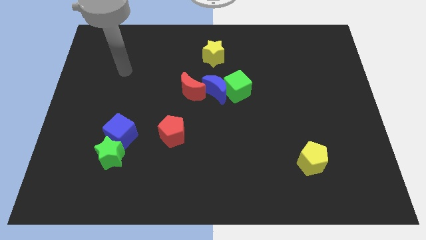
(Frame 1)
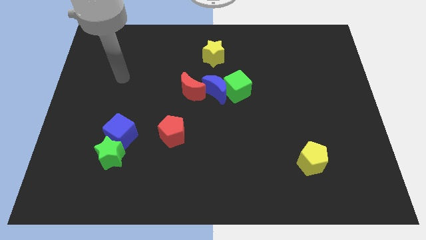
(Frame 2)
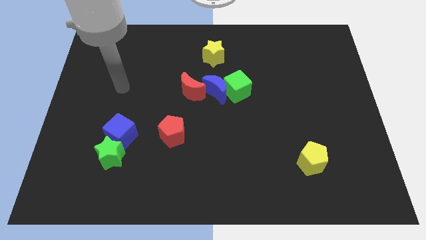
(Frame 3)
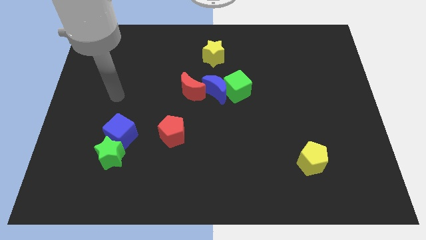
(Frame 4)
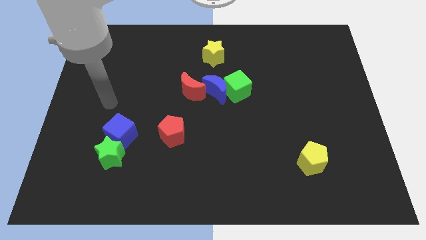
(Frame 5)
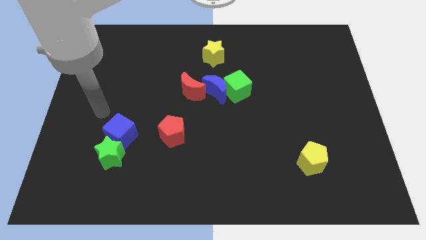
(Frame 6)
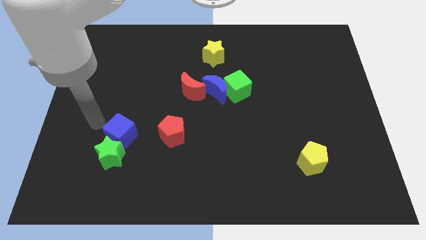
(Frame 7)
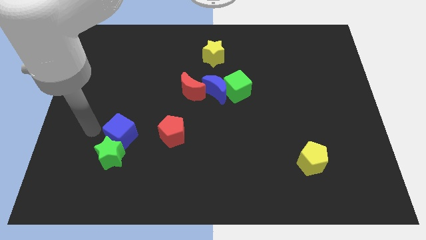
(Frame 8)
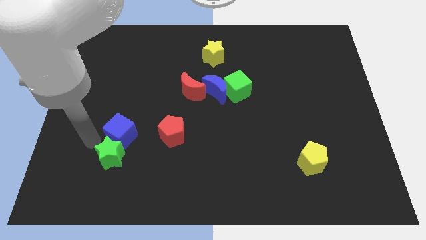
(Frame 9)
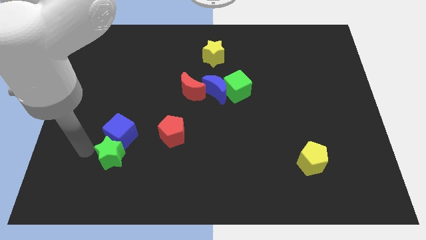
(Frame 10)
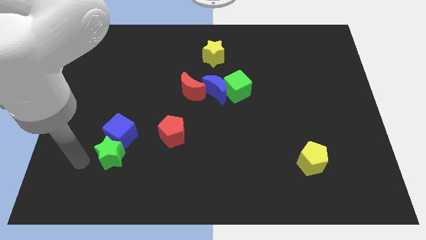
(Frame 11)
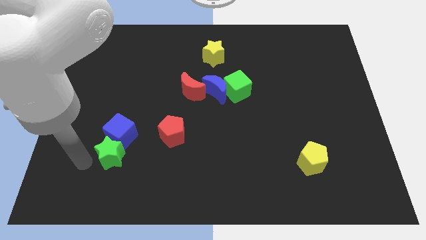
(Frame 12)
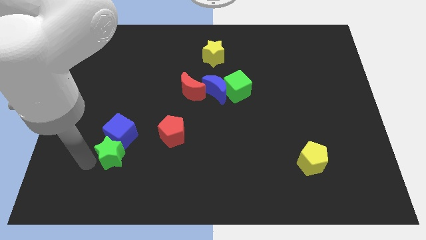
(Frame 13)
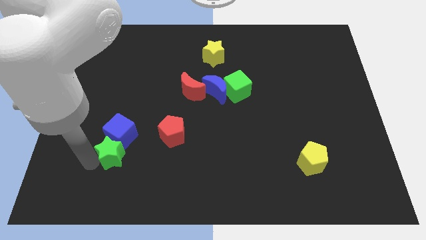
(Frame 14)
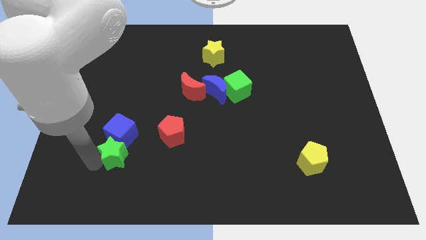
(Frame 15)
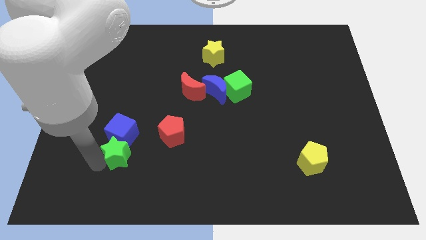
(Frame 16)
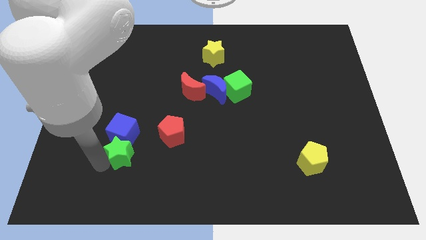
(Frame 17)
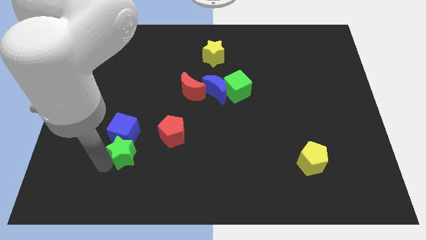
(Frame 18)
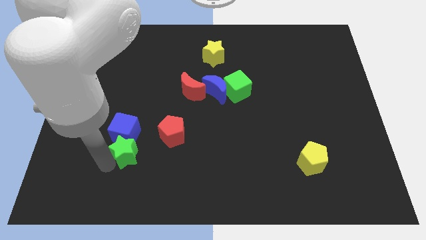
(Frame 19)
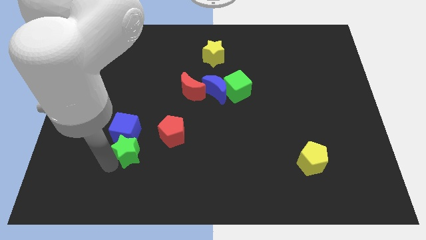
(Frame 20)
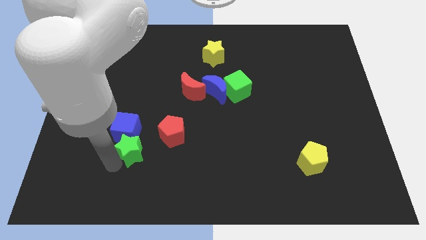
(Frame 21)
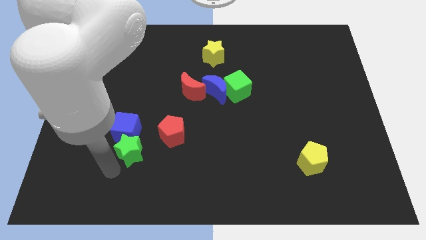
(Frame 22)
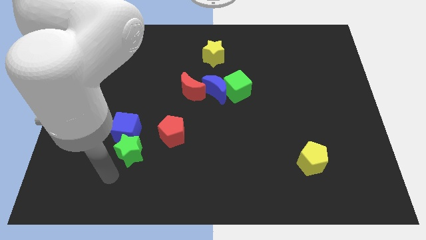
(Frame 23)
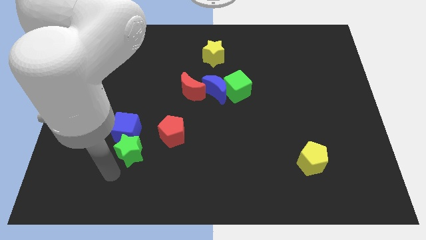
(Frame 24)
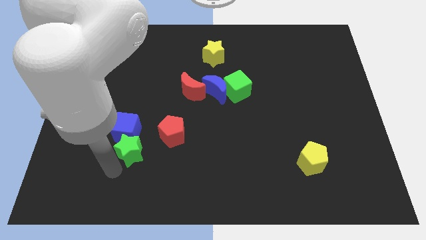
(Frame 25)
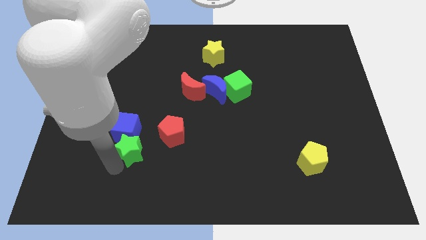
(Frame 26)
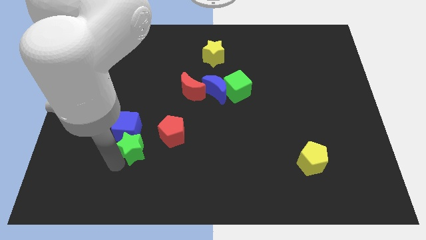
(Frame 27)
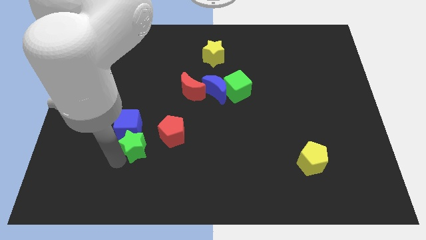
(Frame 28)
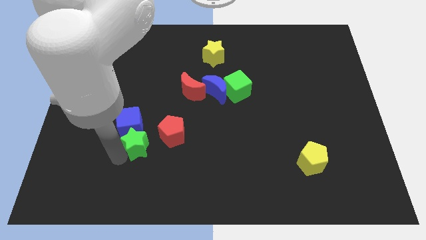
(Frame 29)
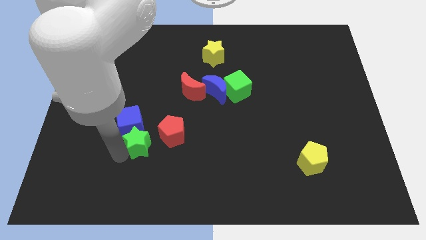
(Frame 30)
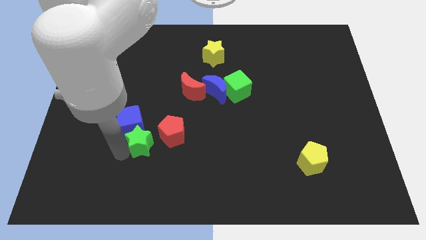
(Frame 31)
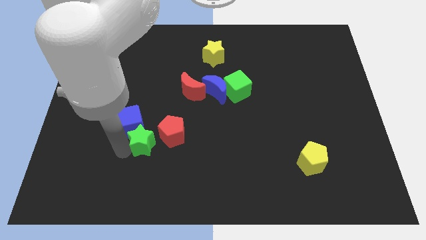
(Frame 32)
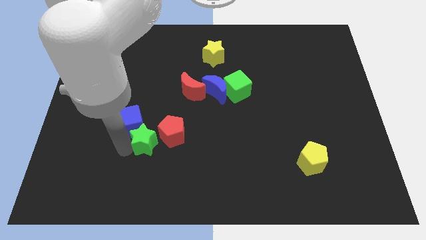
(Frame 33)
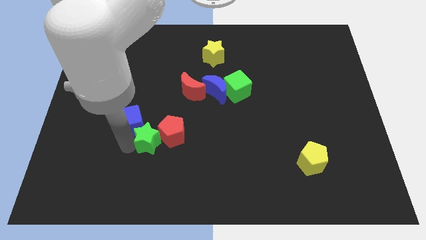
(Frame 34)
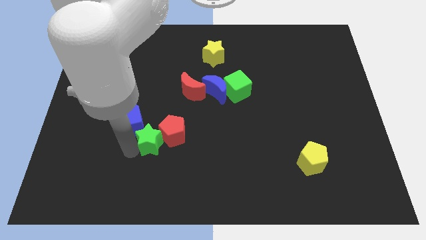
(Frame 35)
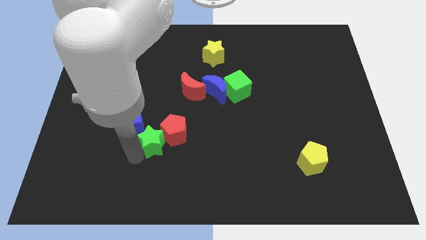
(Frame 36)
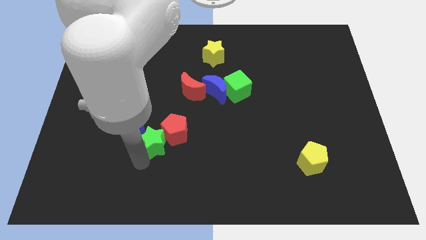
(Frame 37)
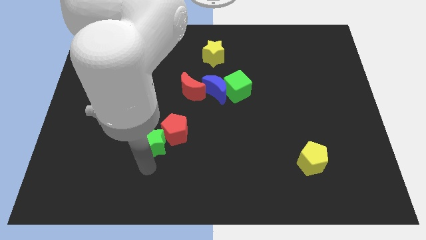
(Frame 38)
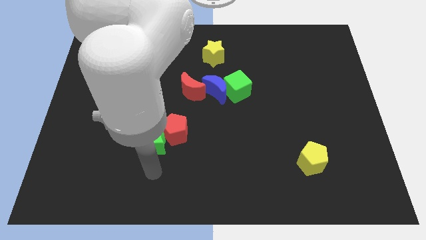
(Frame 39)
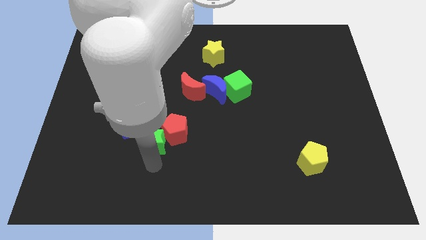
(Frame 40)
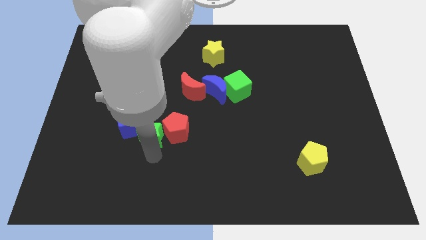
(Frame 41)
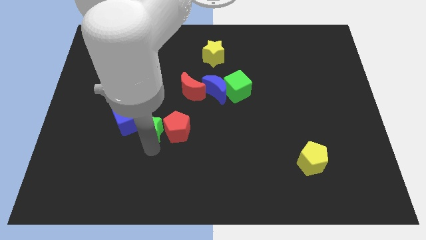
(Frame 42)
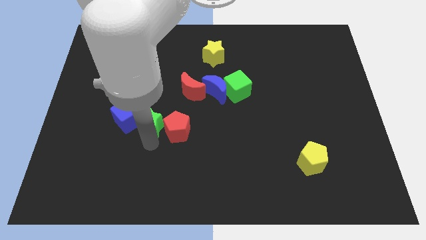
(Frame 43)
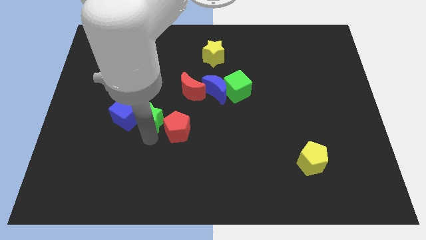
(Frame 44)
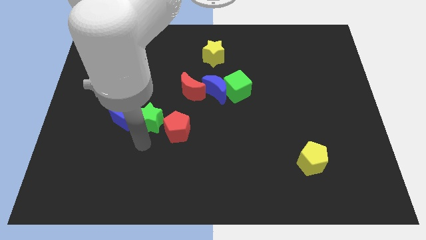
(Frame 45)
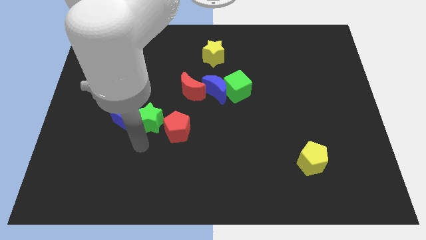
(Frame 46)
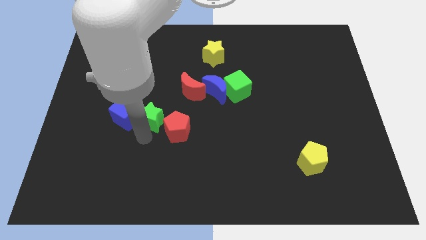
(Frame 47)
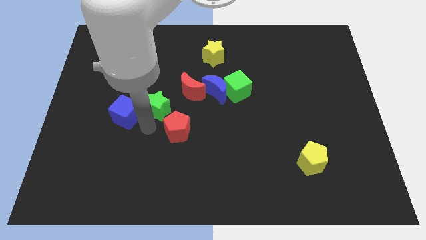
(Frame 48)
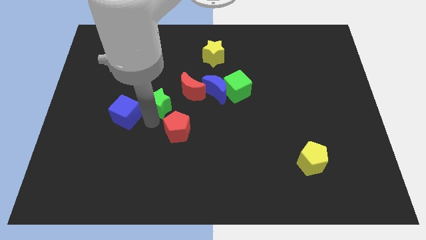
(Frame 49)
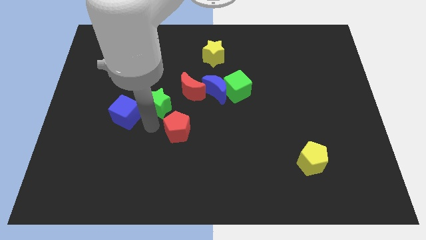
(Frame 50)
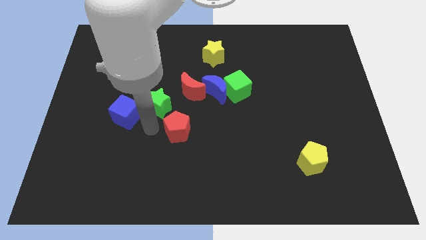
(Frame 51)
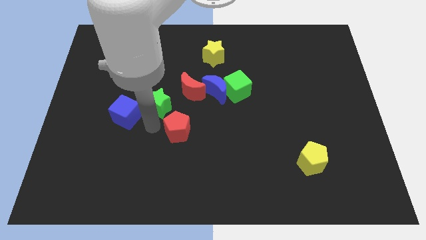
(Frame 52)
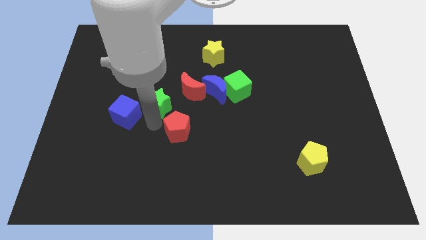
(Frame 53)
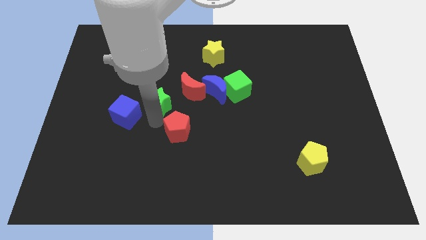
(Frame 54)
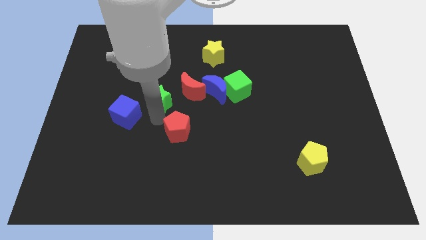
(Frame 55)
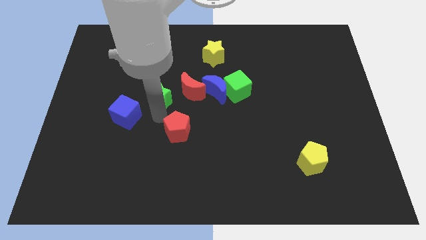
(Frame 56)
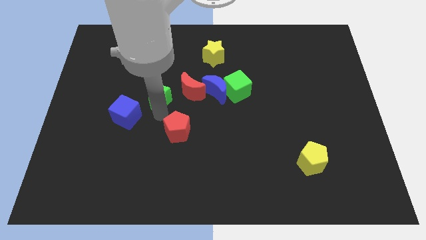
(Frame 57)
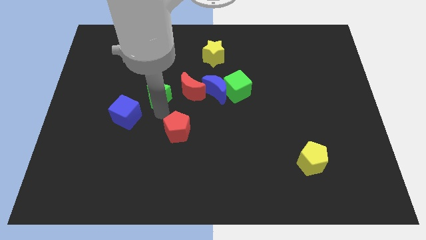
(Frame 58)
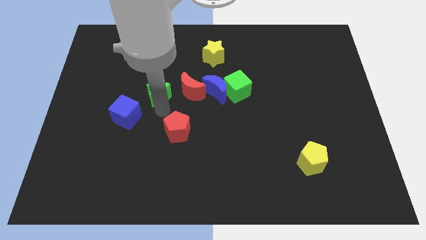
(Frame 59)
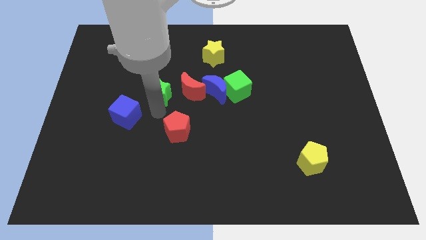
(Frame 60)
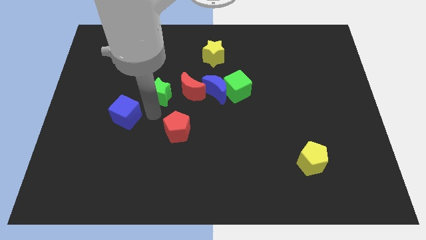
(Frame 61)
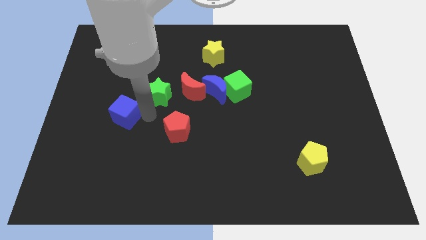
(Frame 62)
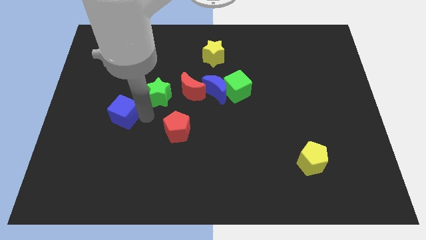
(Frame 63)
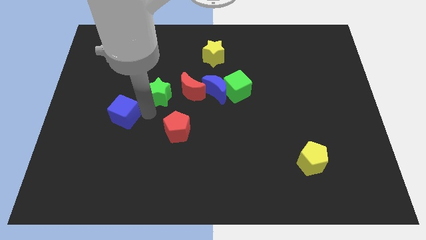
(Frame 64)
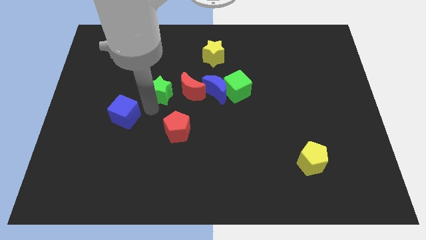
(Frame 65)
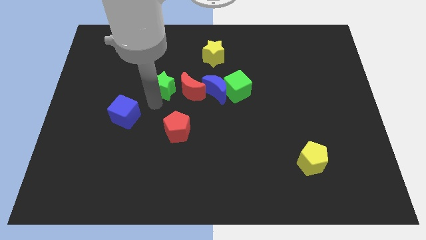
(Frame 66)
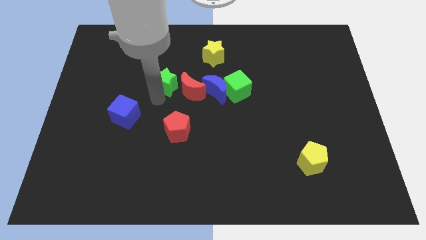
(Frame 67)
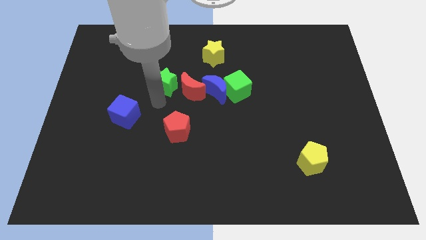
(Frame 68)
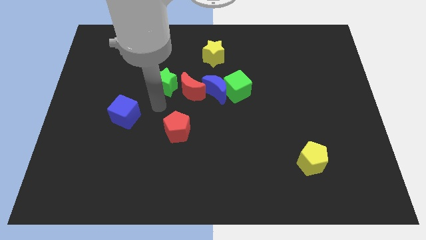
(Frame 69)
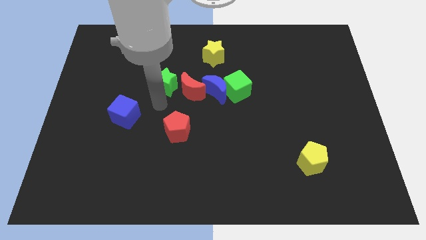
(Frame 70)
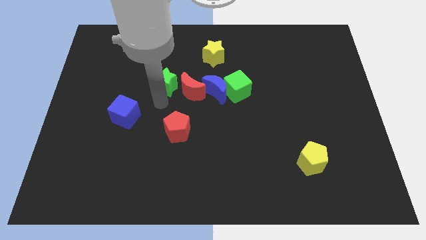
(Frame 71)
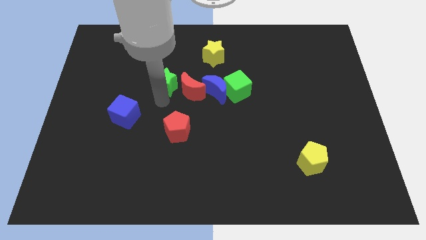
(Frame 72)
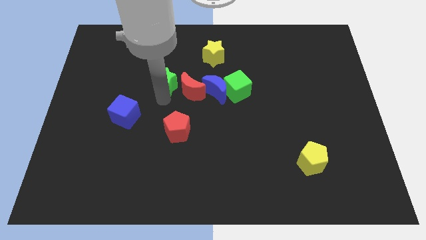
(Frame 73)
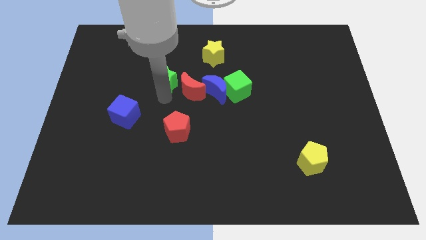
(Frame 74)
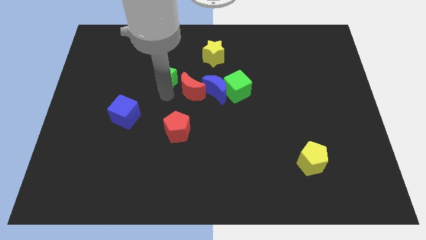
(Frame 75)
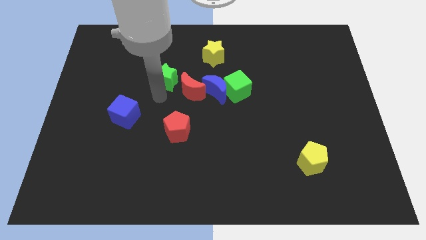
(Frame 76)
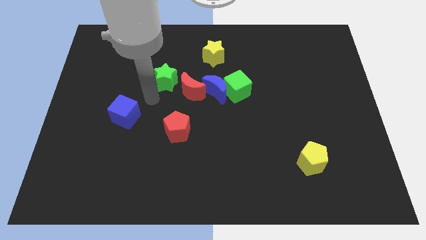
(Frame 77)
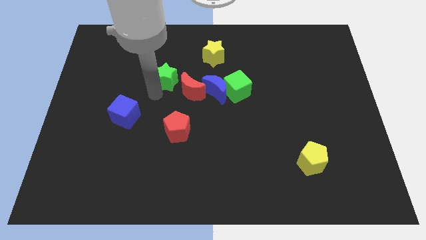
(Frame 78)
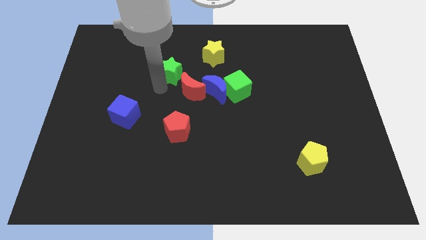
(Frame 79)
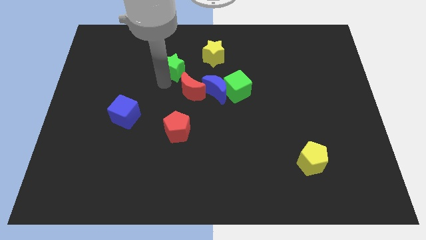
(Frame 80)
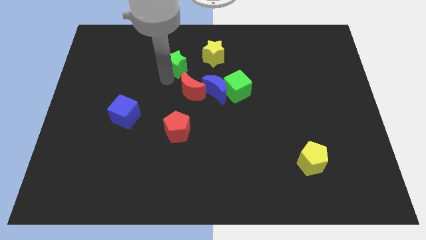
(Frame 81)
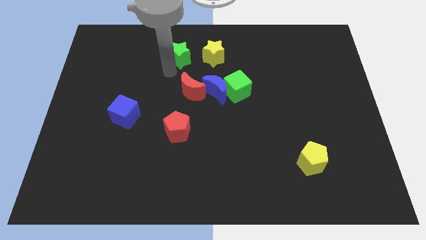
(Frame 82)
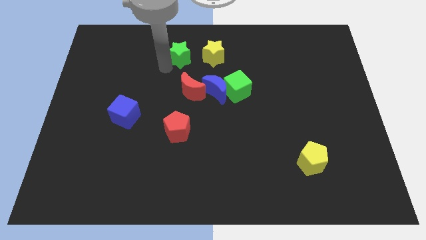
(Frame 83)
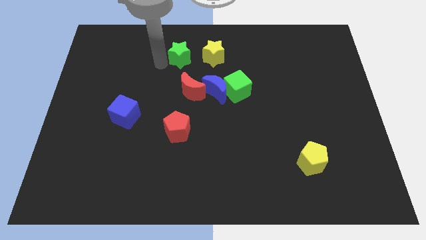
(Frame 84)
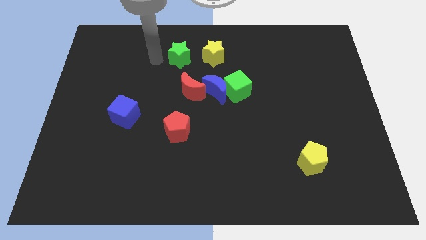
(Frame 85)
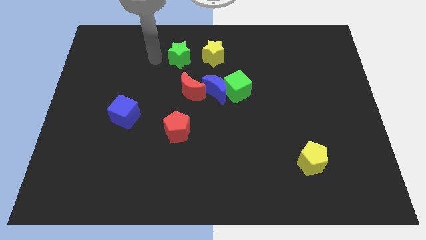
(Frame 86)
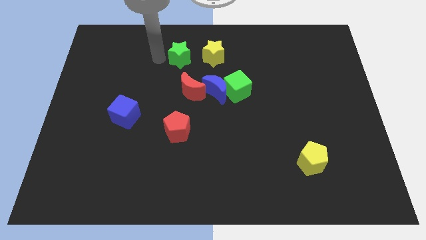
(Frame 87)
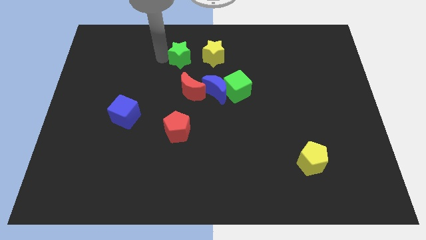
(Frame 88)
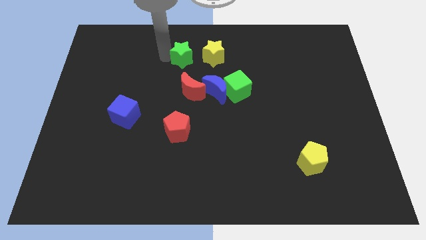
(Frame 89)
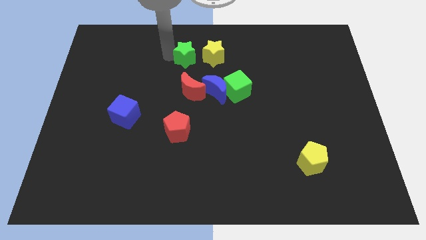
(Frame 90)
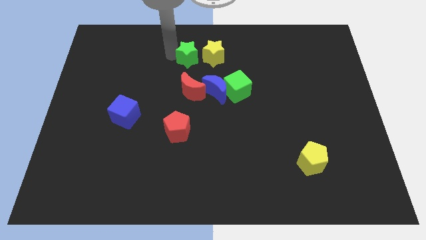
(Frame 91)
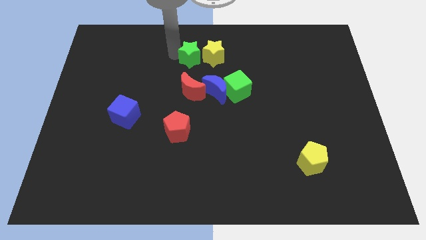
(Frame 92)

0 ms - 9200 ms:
put the green star next to the yellow star
